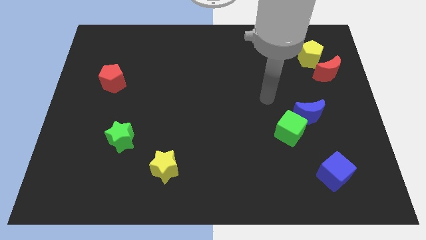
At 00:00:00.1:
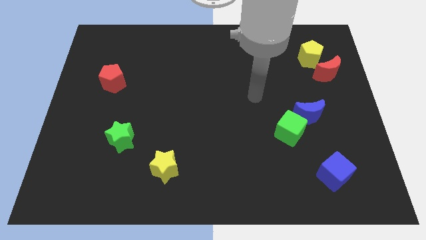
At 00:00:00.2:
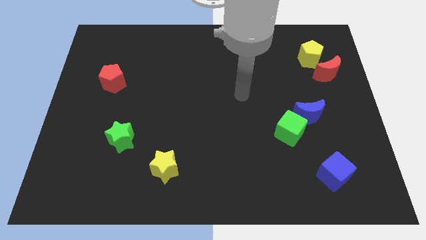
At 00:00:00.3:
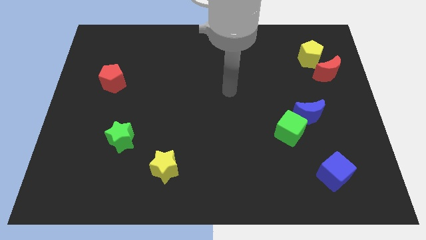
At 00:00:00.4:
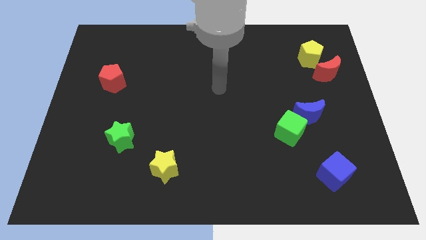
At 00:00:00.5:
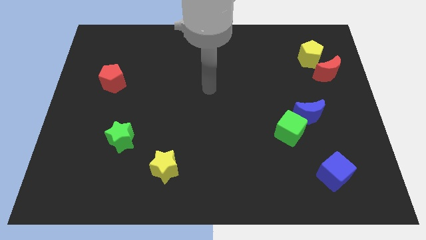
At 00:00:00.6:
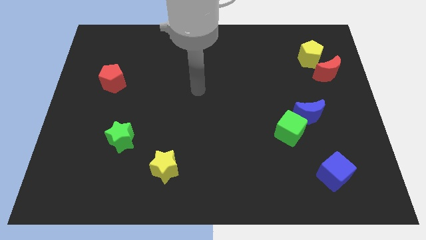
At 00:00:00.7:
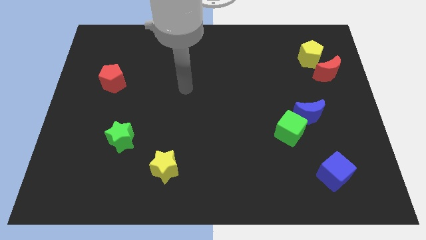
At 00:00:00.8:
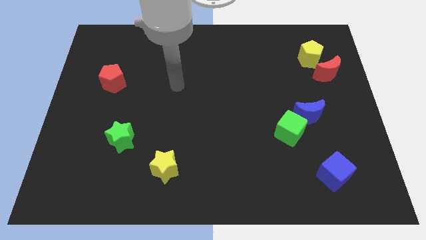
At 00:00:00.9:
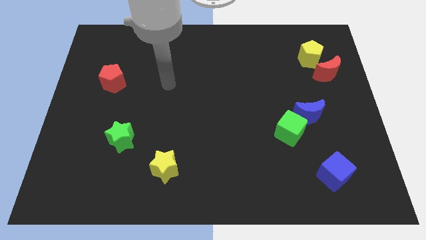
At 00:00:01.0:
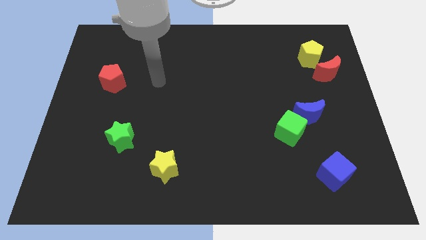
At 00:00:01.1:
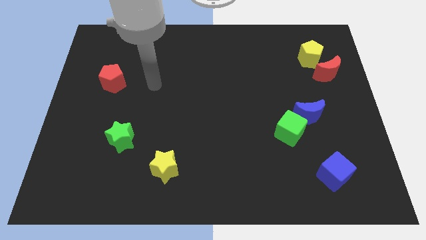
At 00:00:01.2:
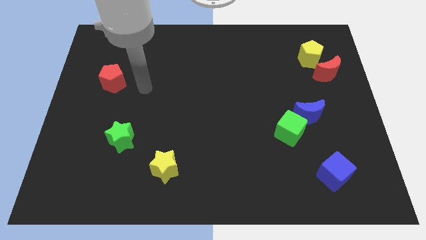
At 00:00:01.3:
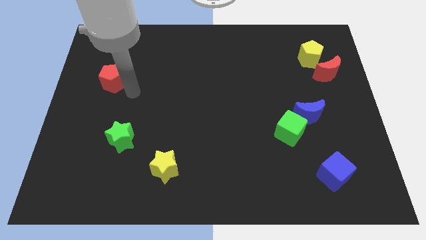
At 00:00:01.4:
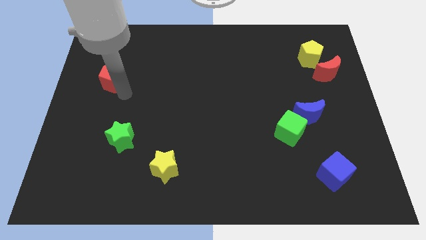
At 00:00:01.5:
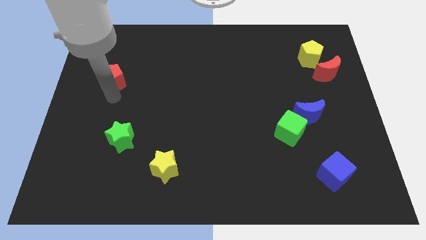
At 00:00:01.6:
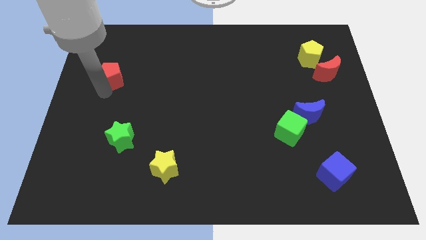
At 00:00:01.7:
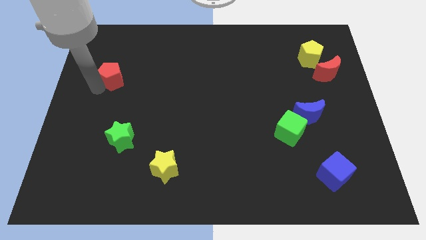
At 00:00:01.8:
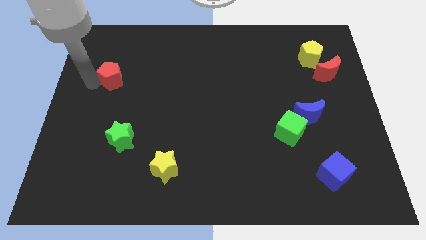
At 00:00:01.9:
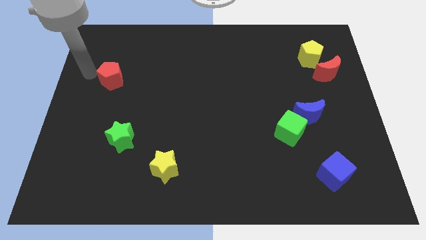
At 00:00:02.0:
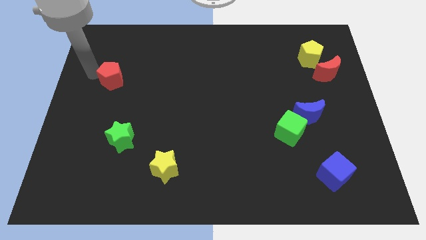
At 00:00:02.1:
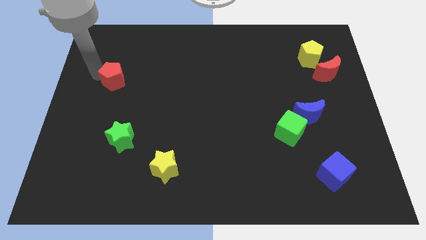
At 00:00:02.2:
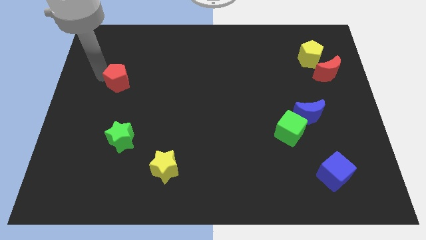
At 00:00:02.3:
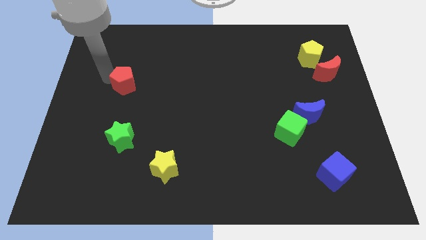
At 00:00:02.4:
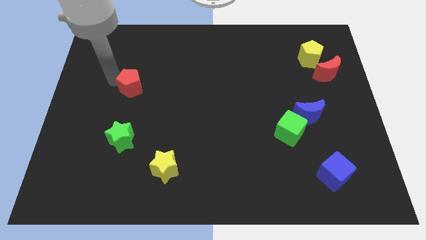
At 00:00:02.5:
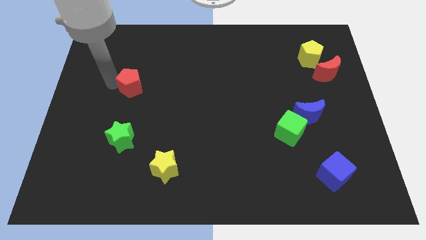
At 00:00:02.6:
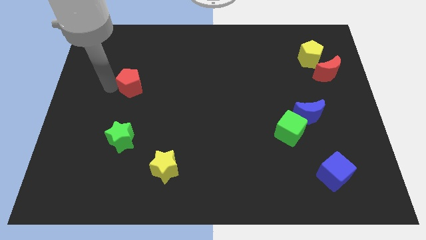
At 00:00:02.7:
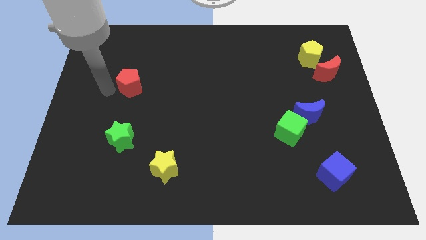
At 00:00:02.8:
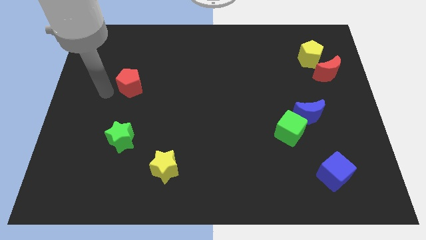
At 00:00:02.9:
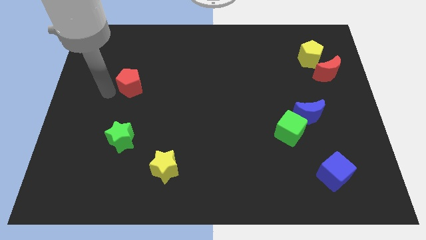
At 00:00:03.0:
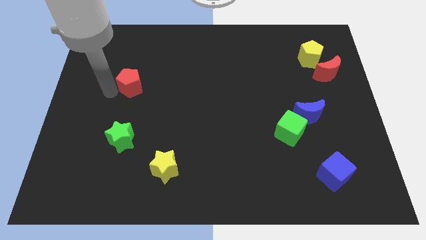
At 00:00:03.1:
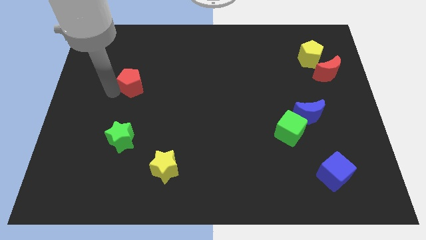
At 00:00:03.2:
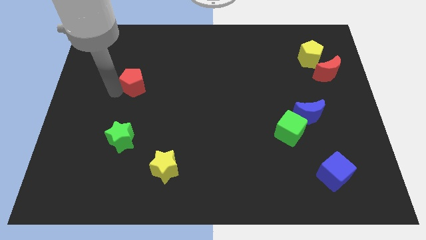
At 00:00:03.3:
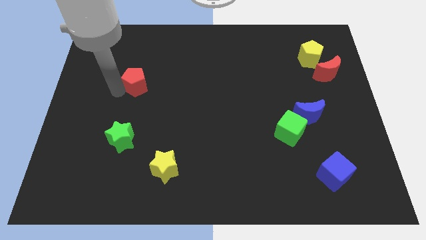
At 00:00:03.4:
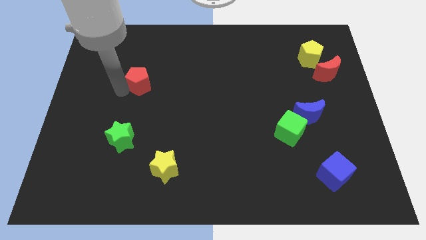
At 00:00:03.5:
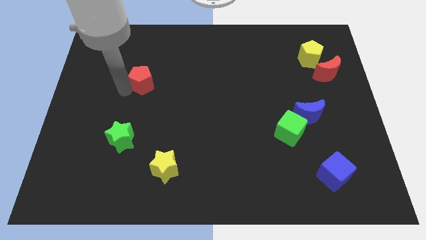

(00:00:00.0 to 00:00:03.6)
slide the red pentagon to the right somewhat

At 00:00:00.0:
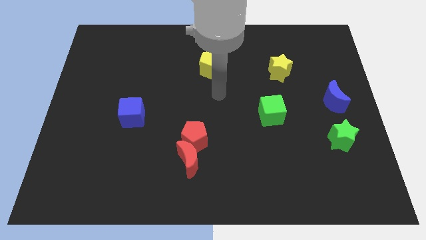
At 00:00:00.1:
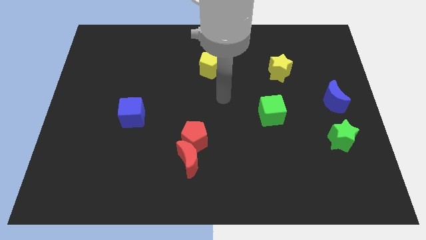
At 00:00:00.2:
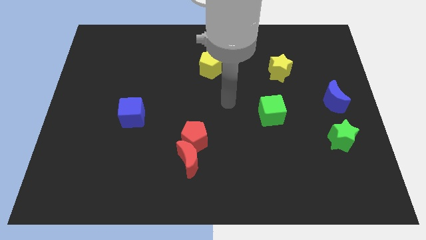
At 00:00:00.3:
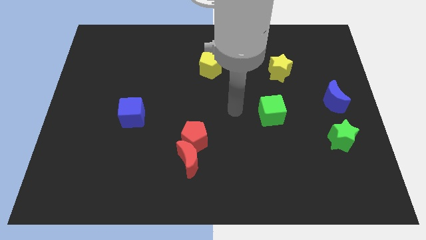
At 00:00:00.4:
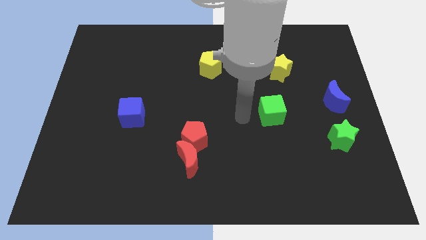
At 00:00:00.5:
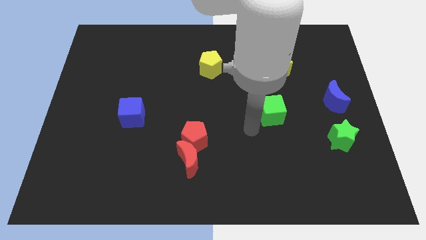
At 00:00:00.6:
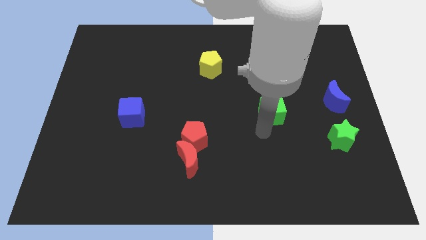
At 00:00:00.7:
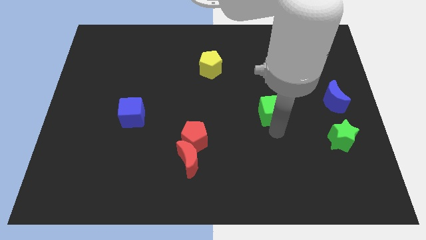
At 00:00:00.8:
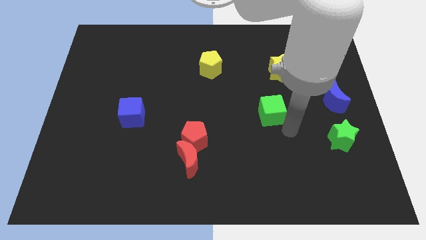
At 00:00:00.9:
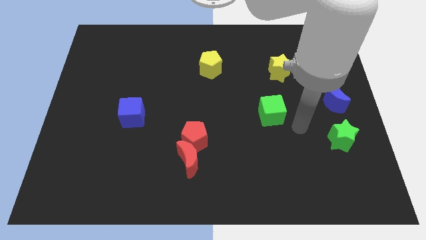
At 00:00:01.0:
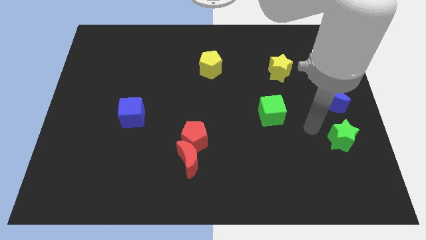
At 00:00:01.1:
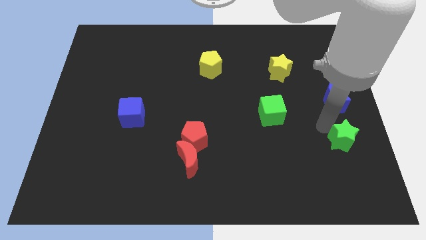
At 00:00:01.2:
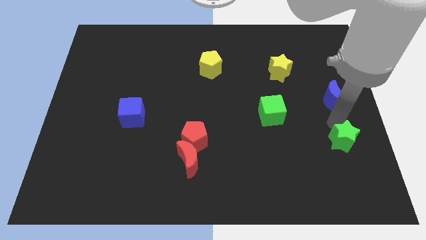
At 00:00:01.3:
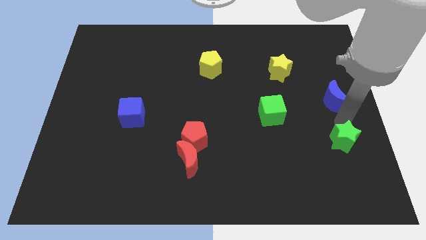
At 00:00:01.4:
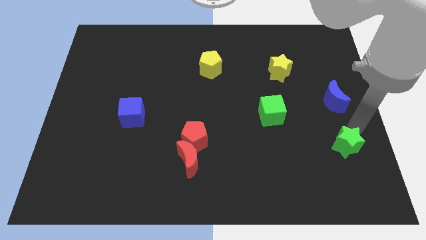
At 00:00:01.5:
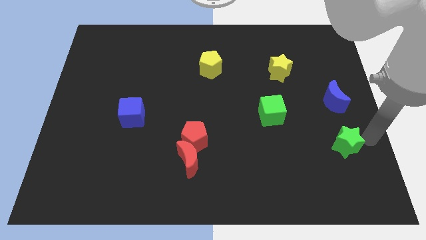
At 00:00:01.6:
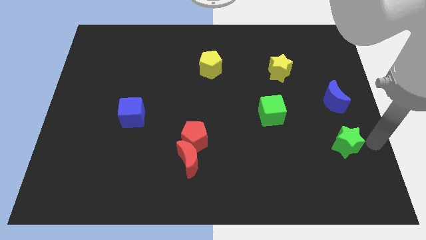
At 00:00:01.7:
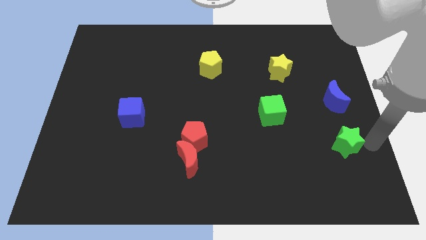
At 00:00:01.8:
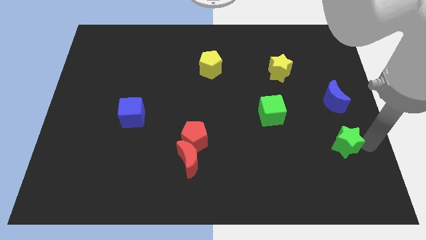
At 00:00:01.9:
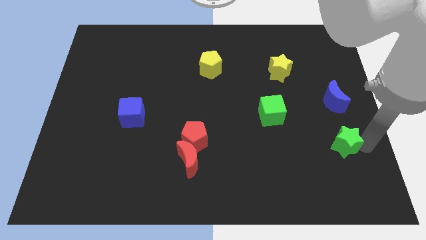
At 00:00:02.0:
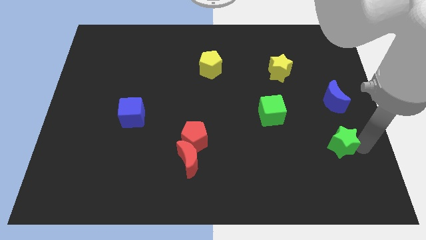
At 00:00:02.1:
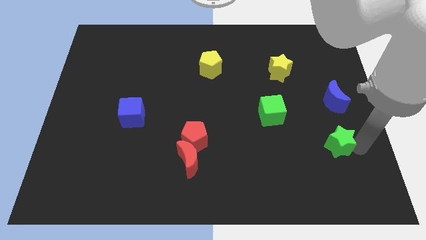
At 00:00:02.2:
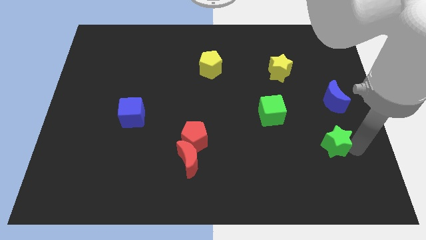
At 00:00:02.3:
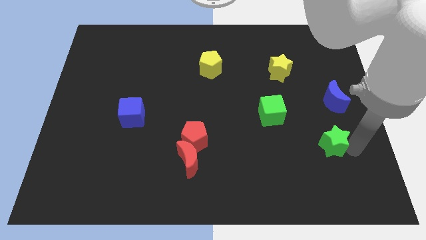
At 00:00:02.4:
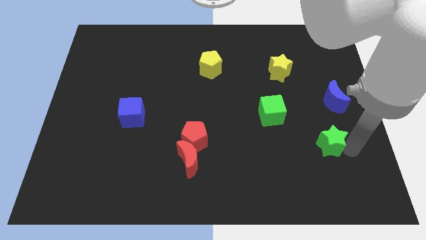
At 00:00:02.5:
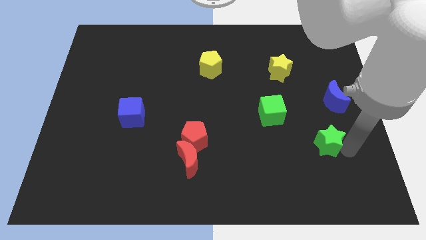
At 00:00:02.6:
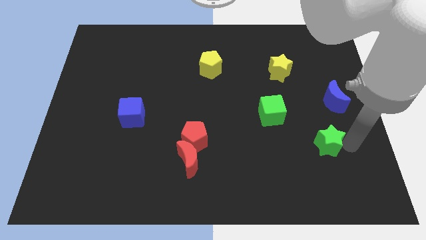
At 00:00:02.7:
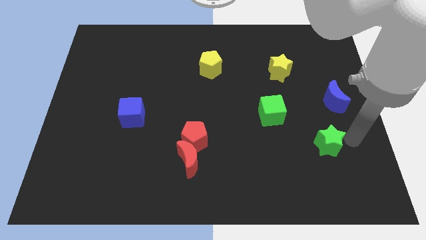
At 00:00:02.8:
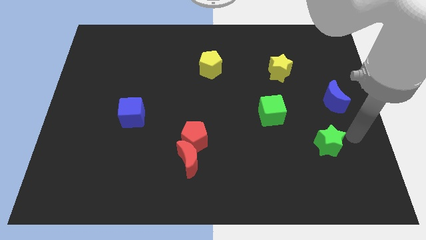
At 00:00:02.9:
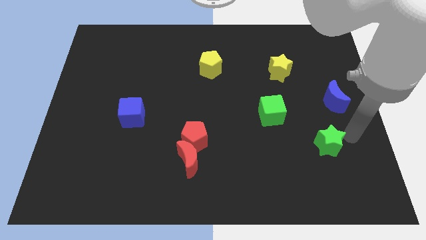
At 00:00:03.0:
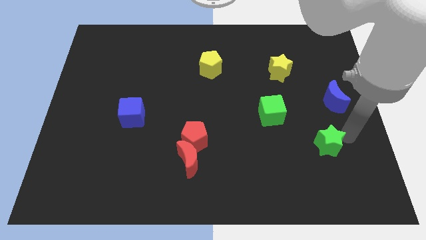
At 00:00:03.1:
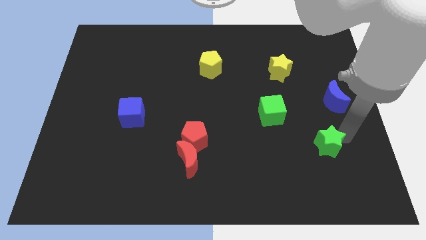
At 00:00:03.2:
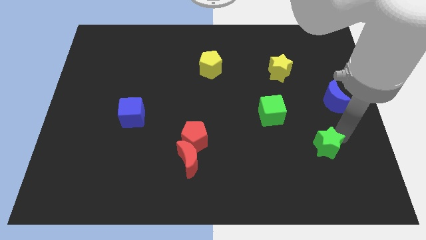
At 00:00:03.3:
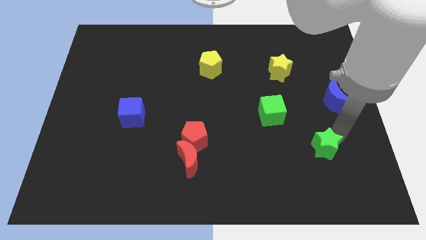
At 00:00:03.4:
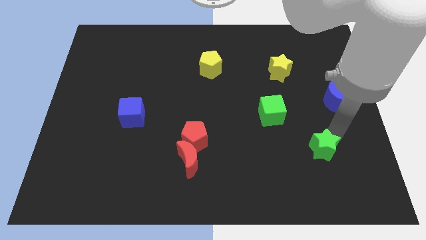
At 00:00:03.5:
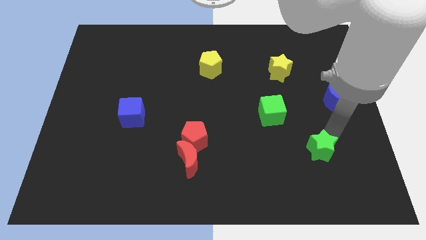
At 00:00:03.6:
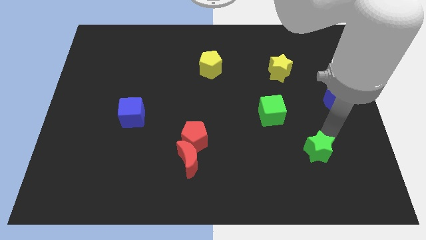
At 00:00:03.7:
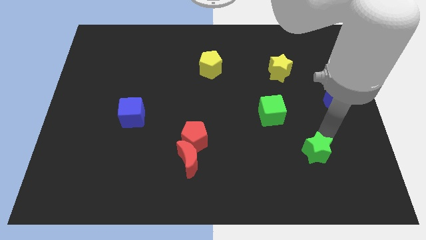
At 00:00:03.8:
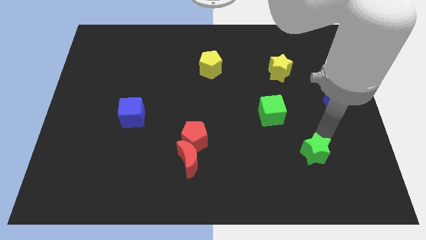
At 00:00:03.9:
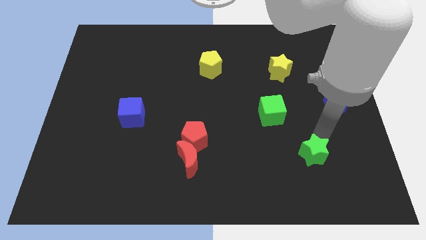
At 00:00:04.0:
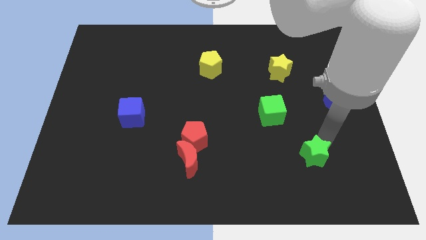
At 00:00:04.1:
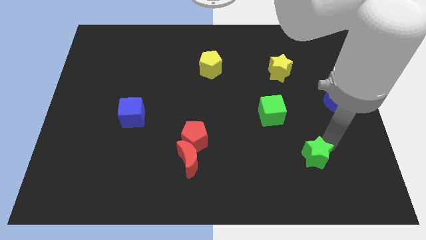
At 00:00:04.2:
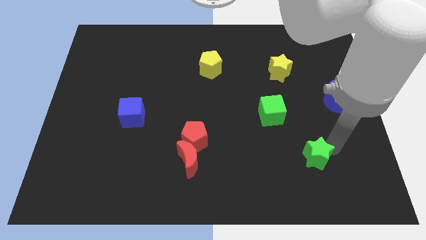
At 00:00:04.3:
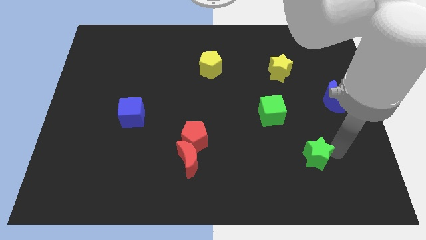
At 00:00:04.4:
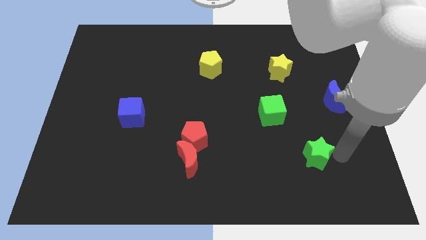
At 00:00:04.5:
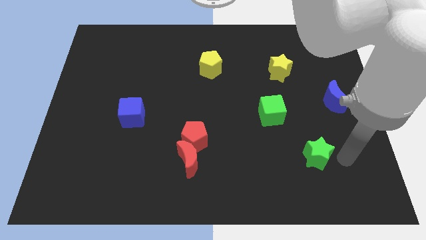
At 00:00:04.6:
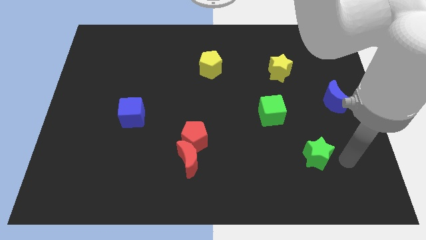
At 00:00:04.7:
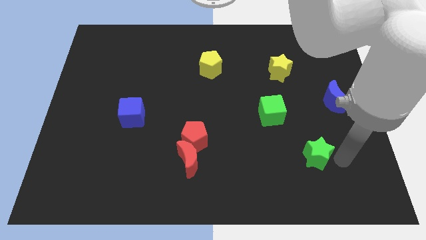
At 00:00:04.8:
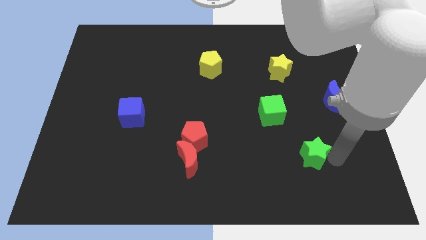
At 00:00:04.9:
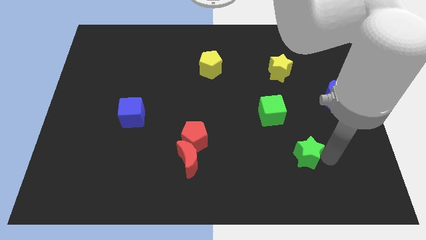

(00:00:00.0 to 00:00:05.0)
move the green star to the left slightly
